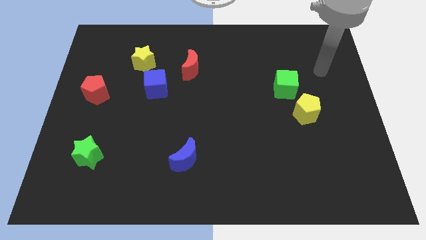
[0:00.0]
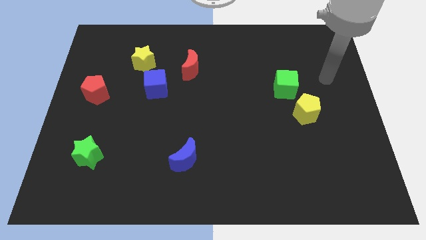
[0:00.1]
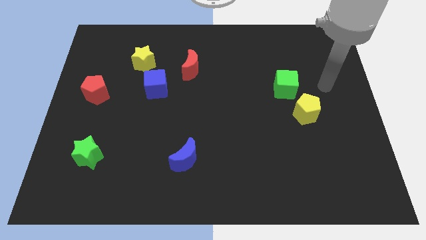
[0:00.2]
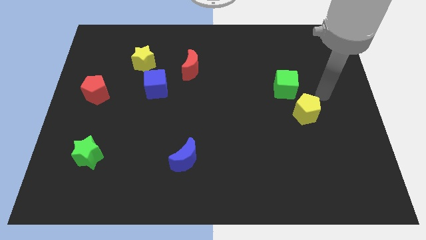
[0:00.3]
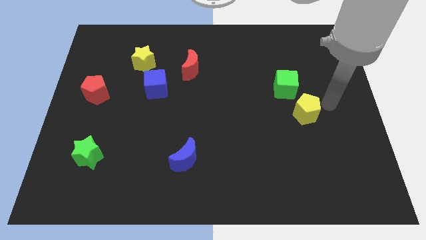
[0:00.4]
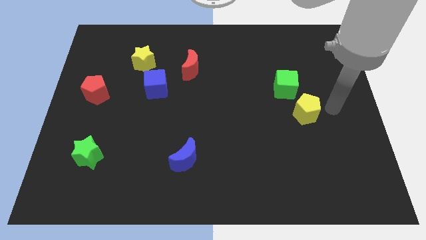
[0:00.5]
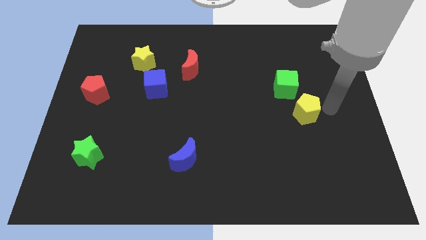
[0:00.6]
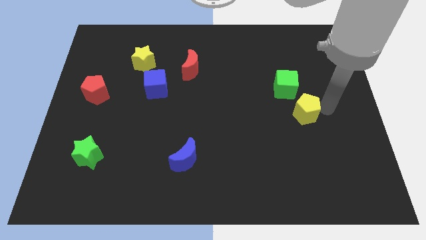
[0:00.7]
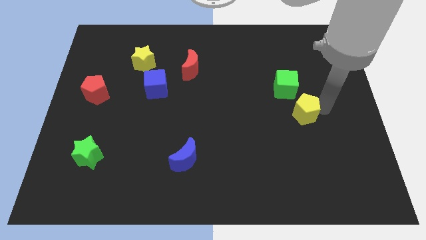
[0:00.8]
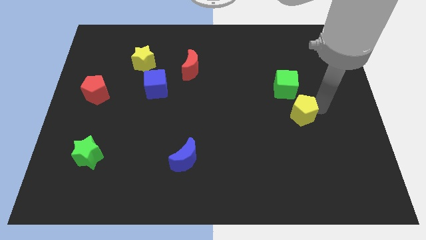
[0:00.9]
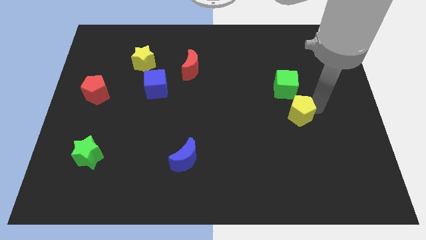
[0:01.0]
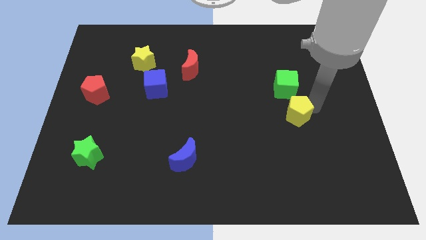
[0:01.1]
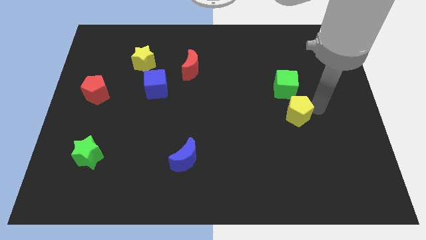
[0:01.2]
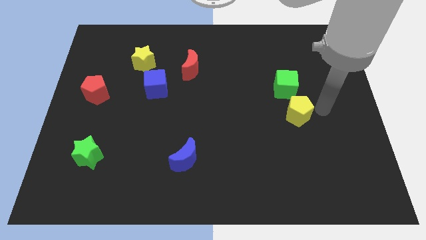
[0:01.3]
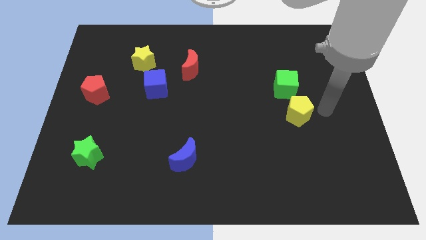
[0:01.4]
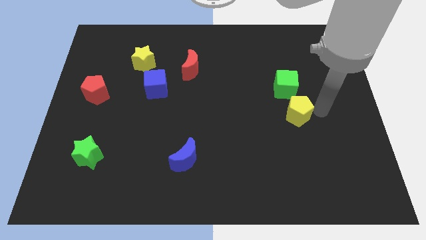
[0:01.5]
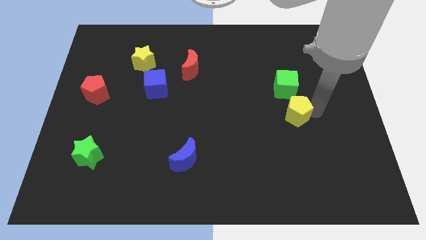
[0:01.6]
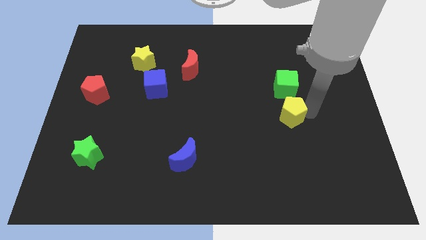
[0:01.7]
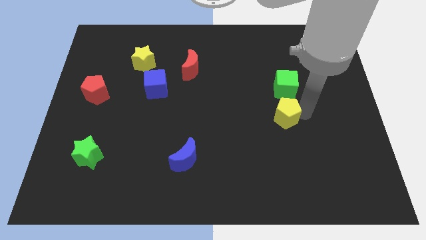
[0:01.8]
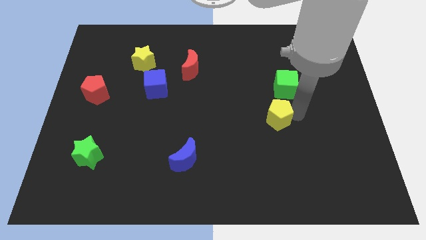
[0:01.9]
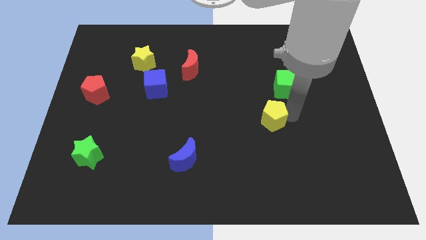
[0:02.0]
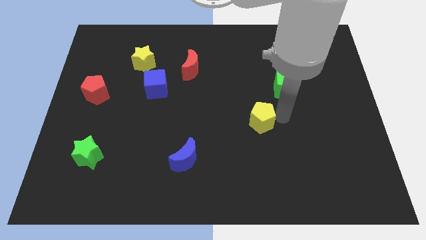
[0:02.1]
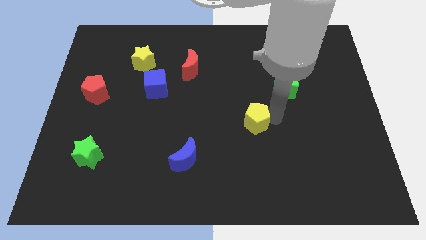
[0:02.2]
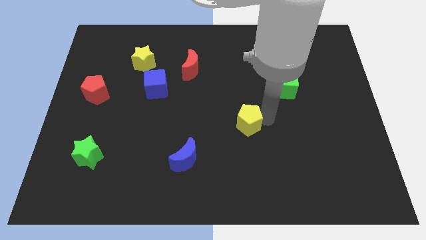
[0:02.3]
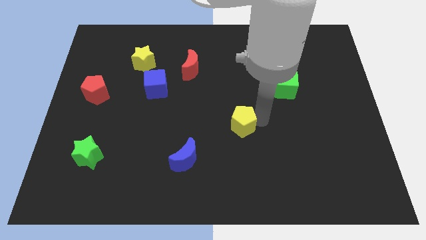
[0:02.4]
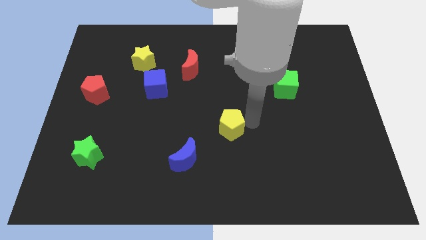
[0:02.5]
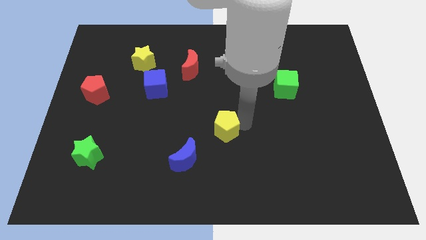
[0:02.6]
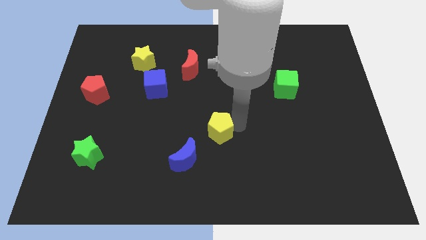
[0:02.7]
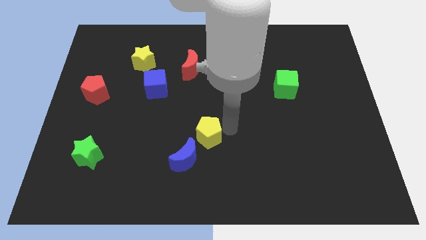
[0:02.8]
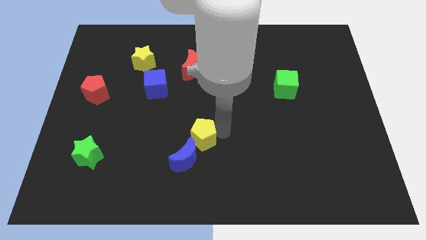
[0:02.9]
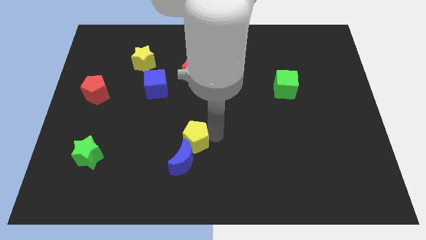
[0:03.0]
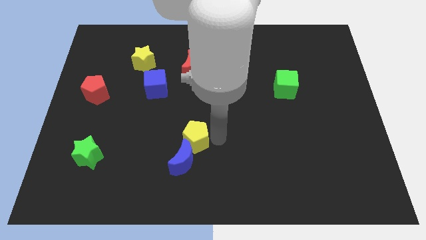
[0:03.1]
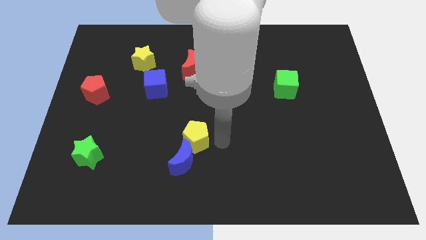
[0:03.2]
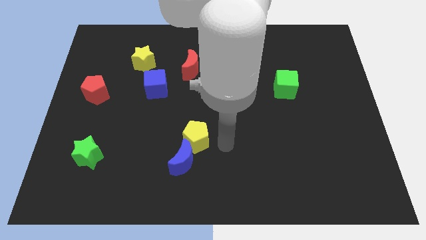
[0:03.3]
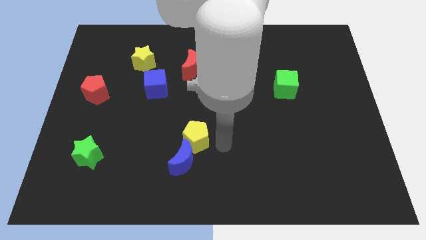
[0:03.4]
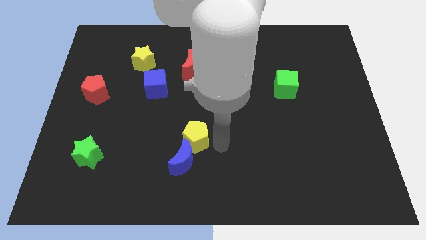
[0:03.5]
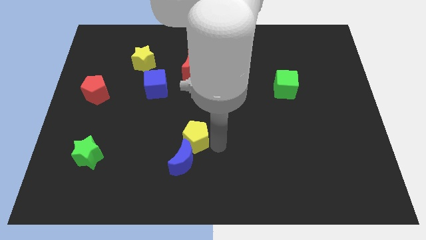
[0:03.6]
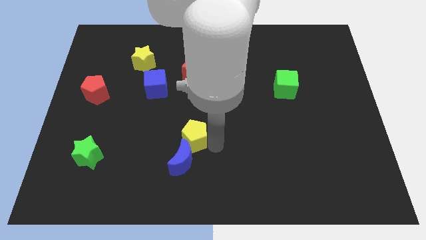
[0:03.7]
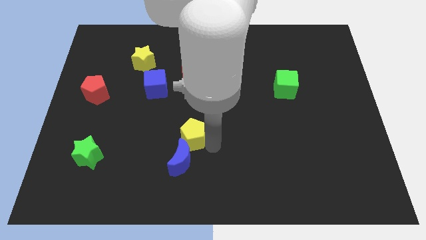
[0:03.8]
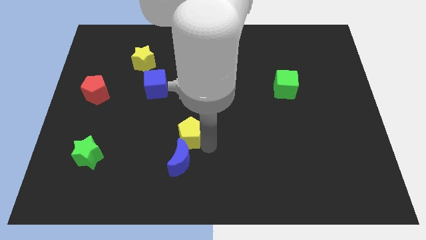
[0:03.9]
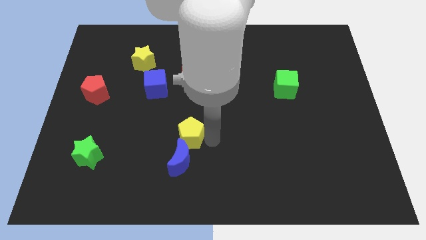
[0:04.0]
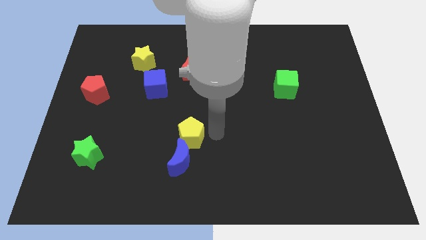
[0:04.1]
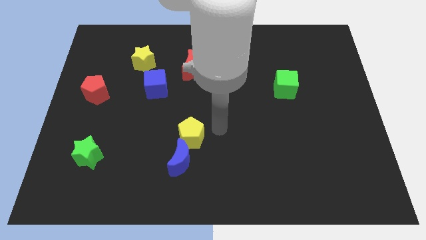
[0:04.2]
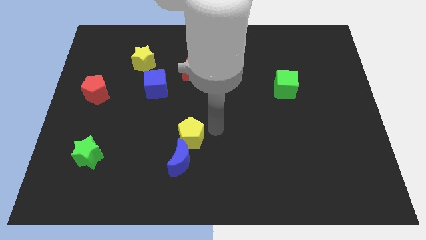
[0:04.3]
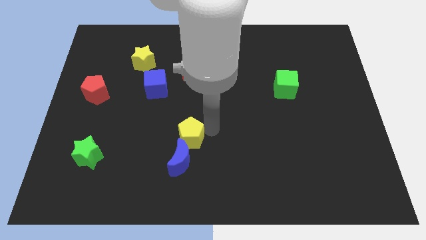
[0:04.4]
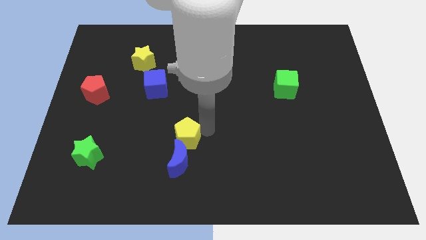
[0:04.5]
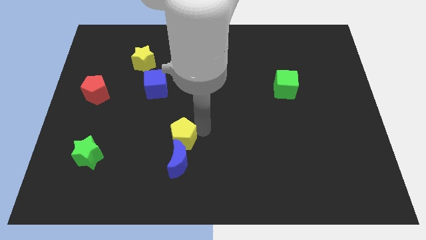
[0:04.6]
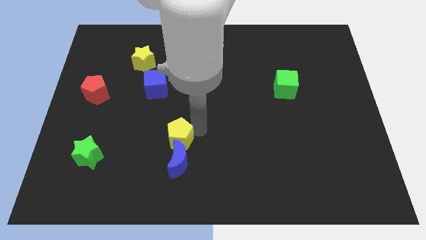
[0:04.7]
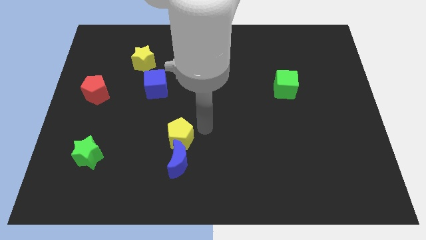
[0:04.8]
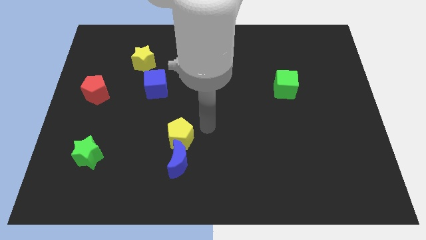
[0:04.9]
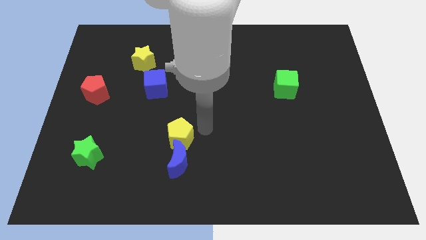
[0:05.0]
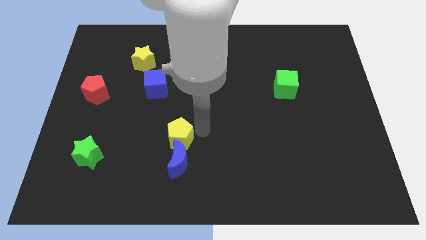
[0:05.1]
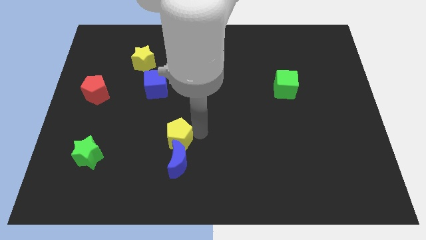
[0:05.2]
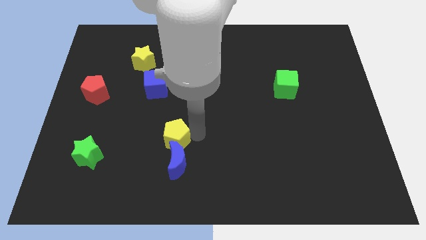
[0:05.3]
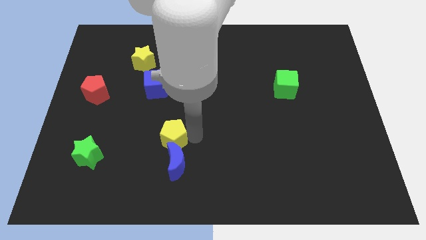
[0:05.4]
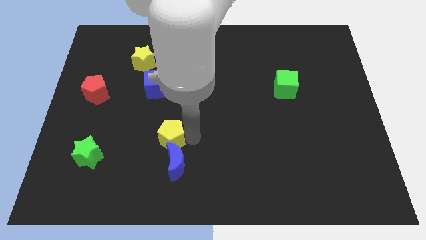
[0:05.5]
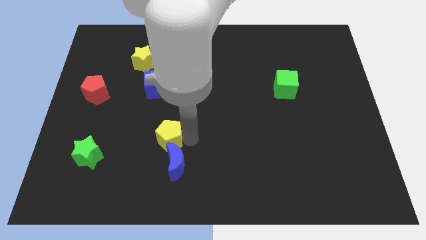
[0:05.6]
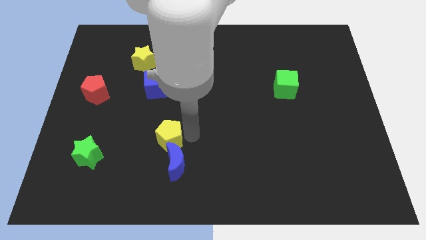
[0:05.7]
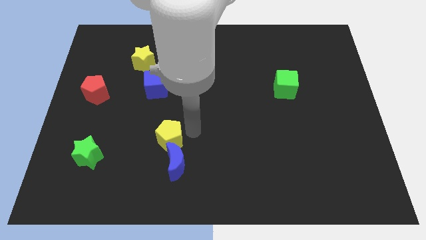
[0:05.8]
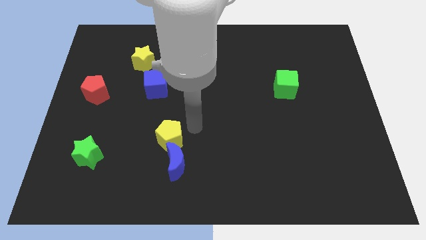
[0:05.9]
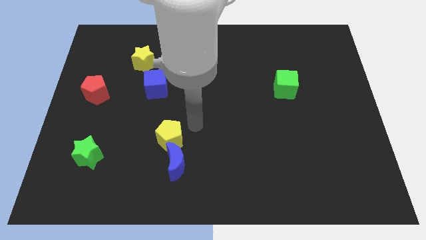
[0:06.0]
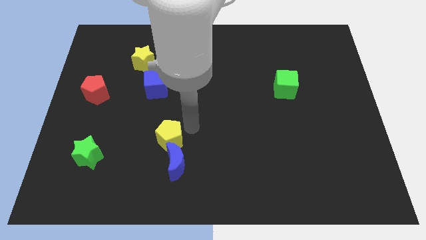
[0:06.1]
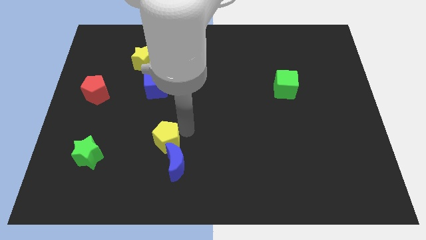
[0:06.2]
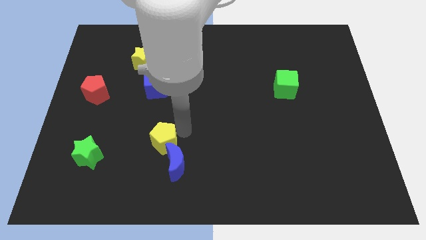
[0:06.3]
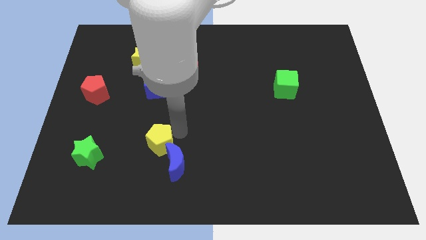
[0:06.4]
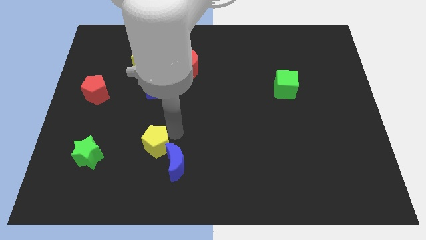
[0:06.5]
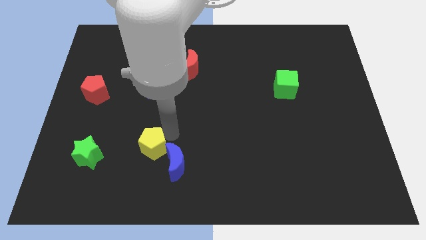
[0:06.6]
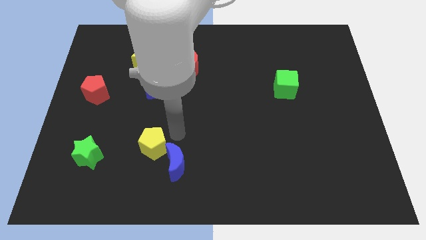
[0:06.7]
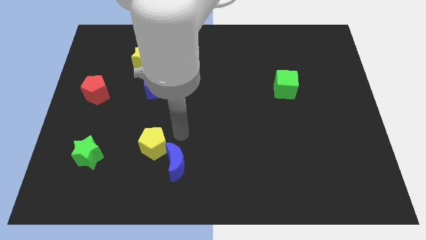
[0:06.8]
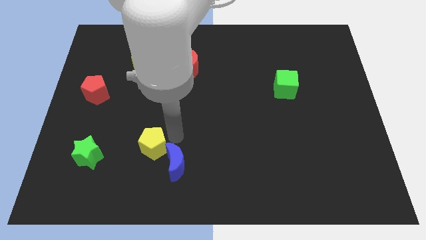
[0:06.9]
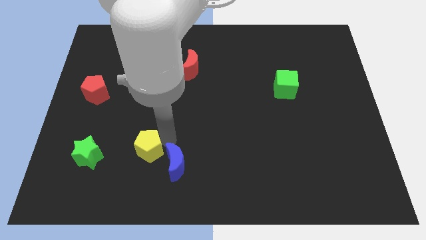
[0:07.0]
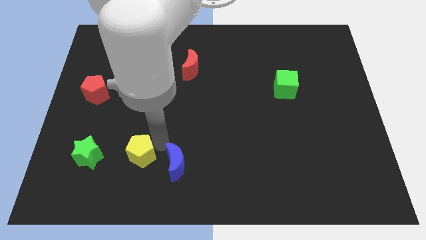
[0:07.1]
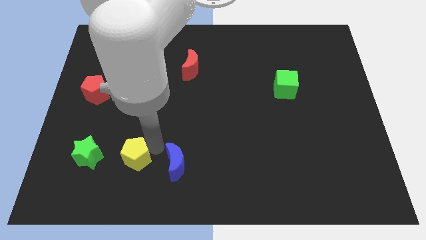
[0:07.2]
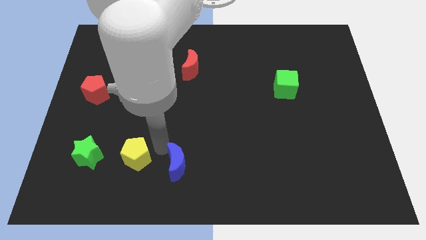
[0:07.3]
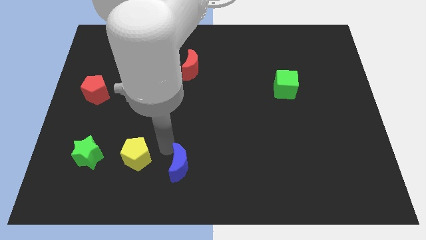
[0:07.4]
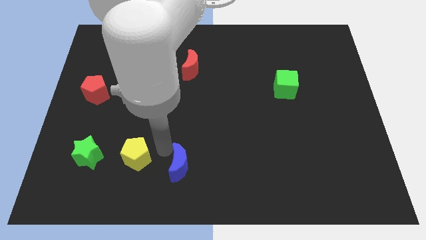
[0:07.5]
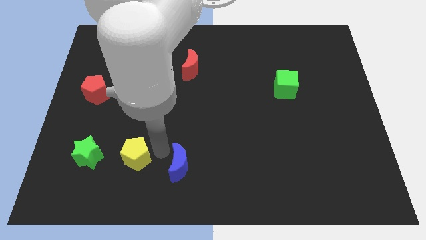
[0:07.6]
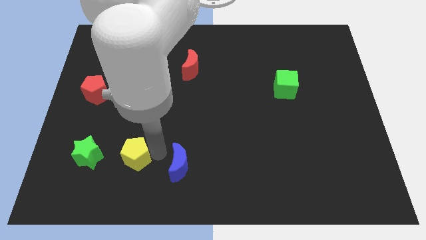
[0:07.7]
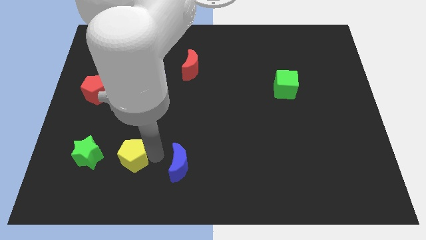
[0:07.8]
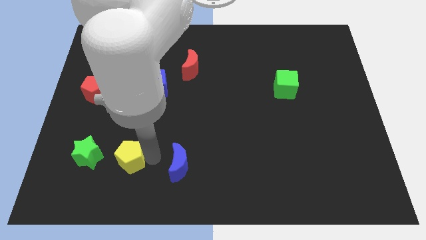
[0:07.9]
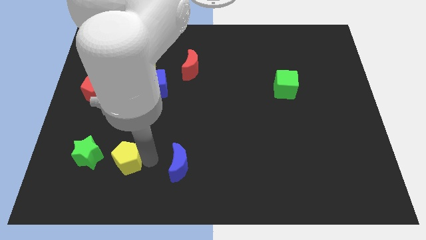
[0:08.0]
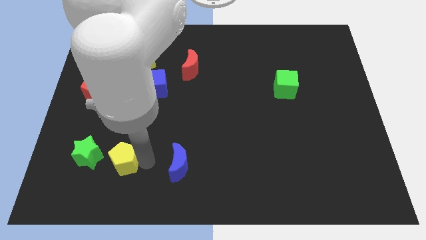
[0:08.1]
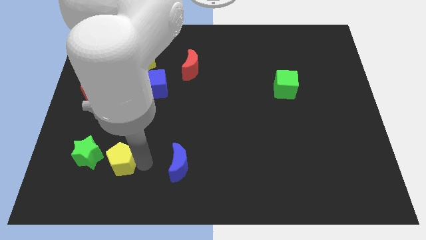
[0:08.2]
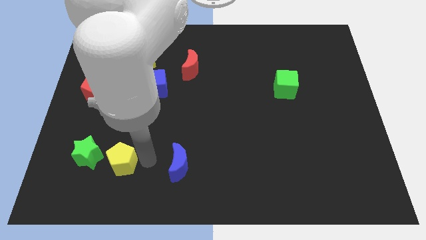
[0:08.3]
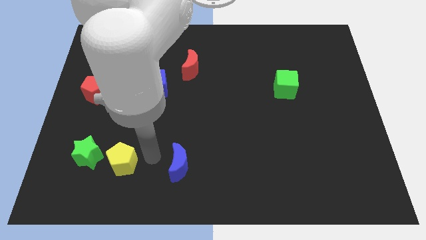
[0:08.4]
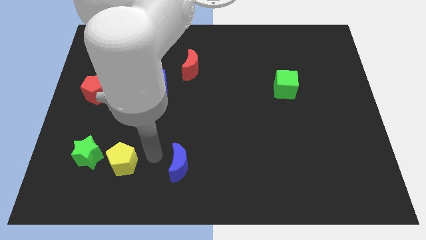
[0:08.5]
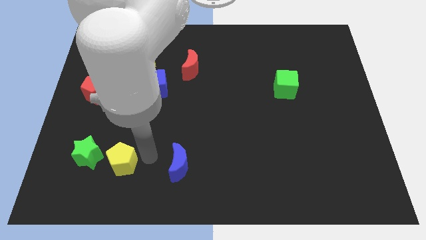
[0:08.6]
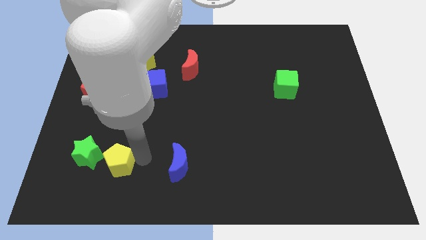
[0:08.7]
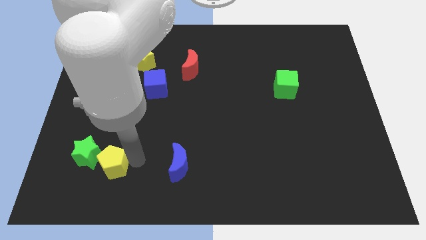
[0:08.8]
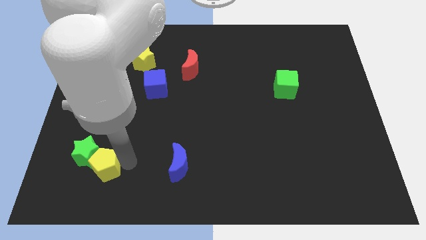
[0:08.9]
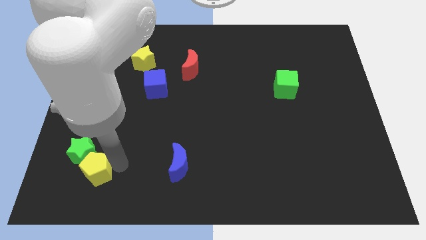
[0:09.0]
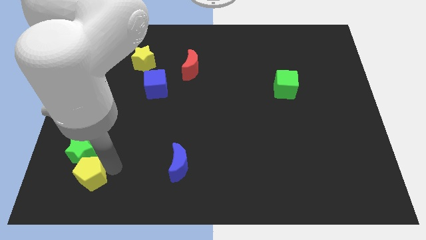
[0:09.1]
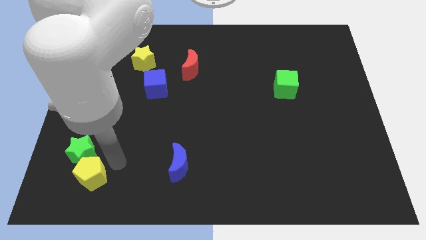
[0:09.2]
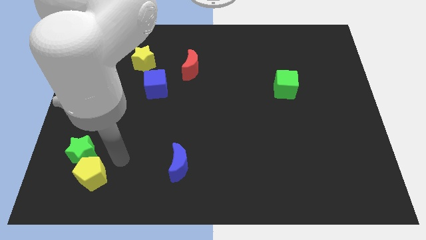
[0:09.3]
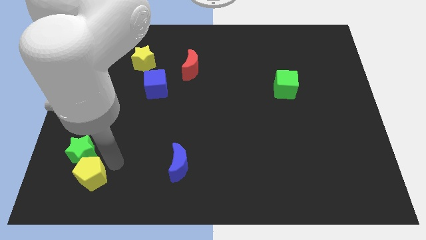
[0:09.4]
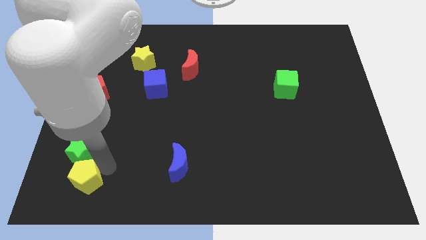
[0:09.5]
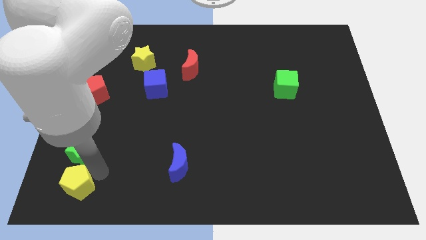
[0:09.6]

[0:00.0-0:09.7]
push the yellow pentagon to the bottom left corner
